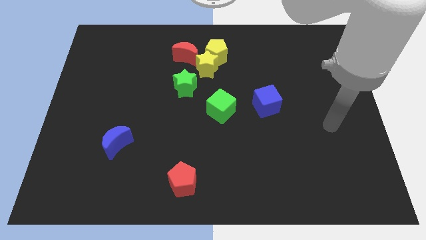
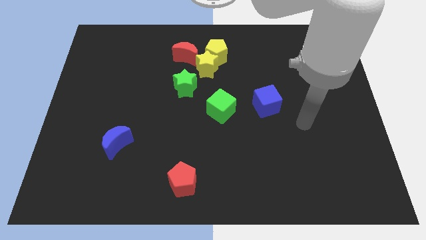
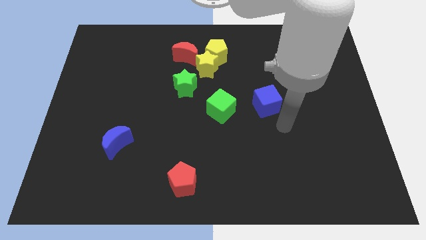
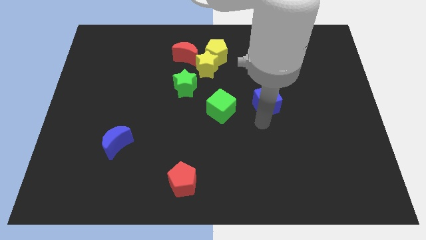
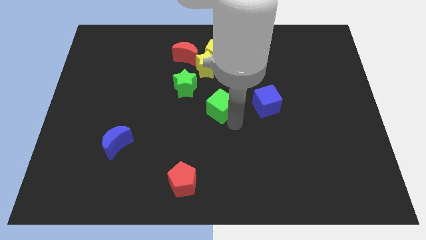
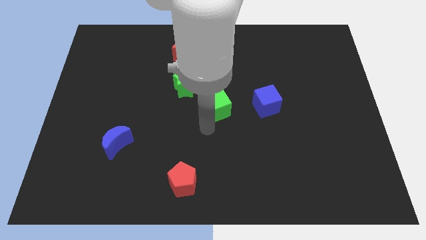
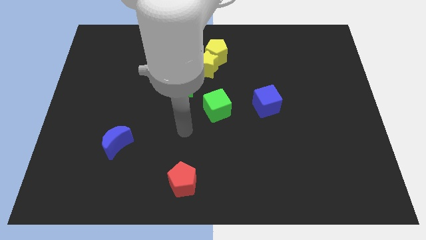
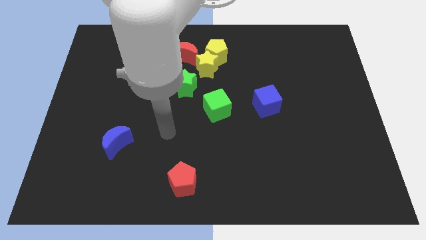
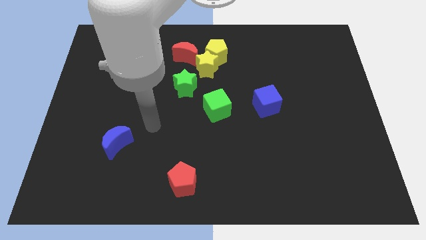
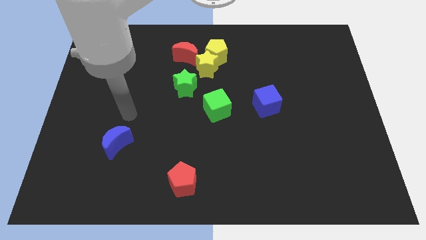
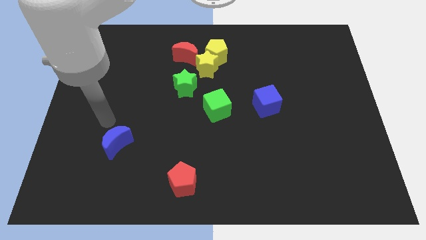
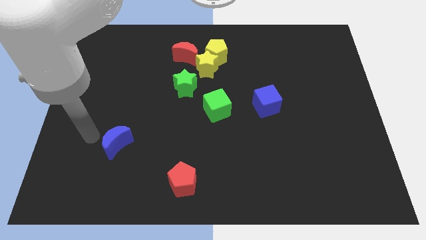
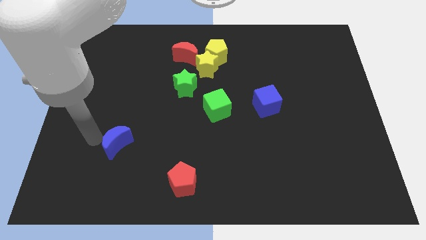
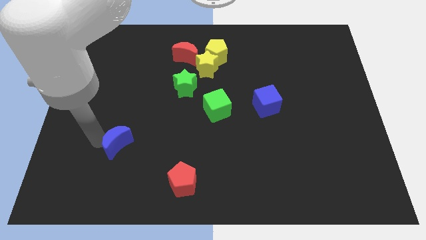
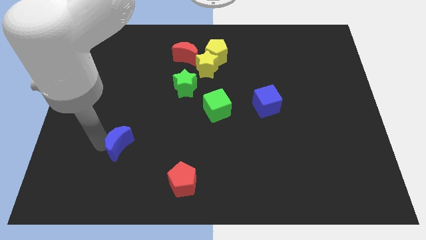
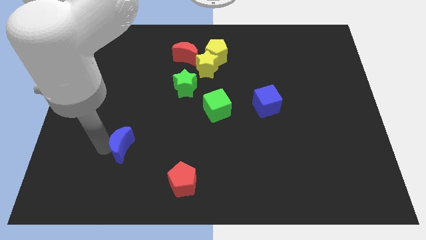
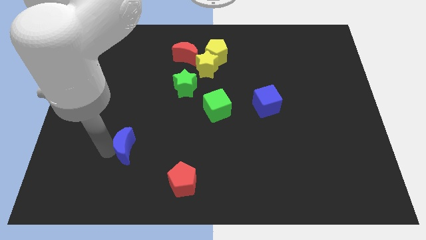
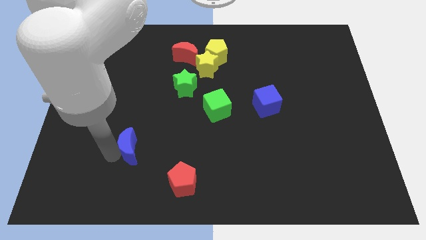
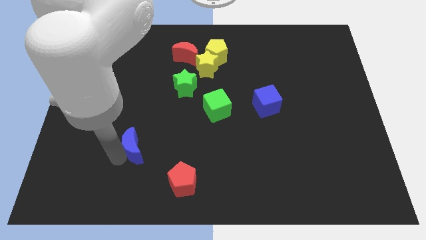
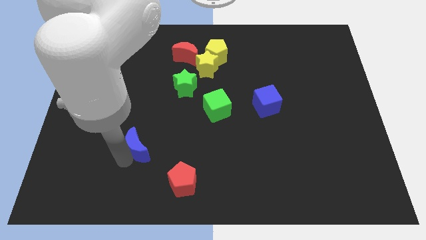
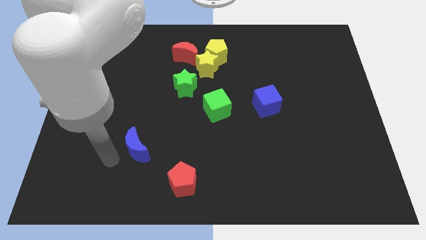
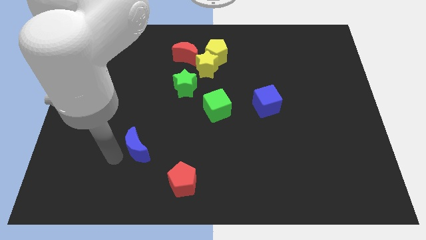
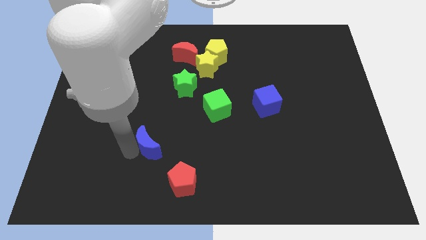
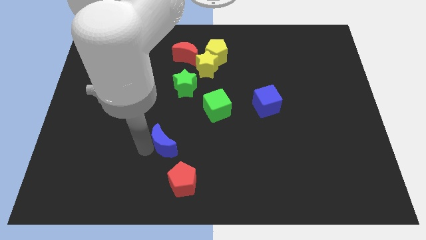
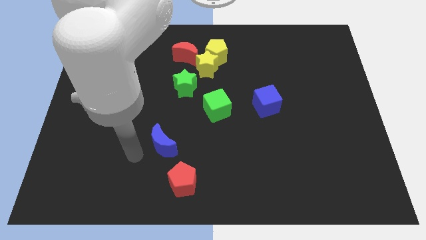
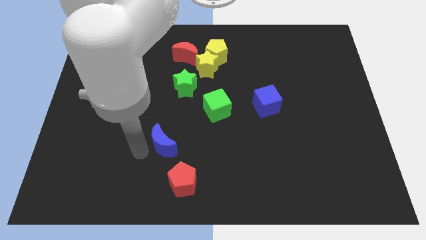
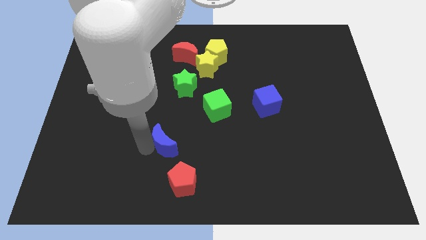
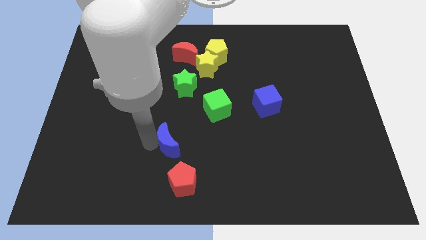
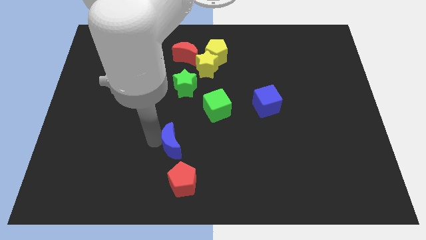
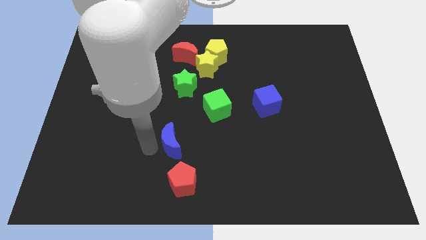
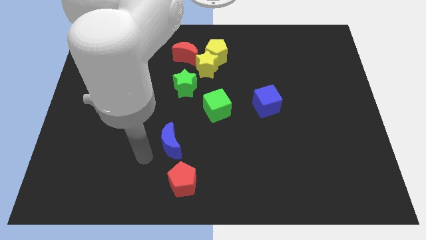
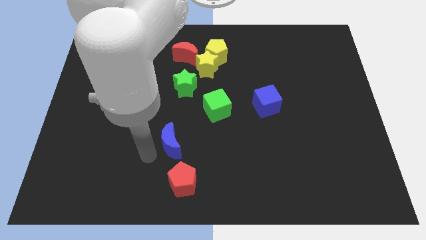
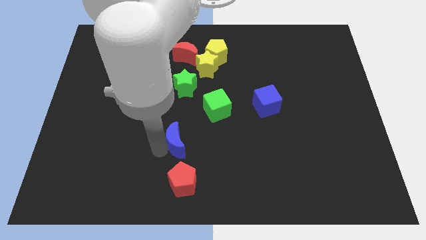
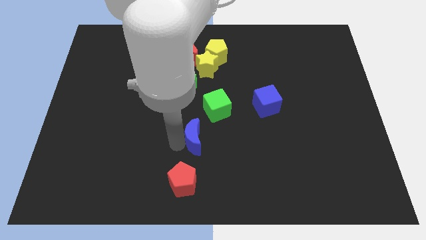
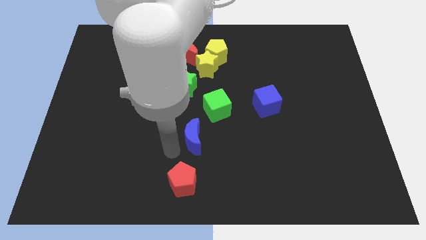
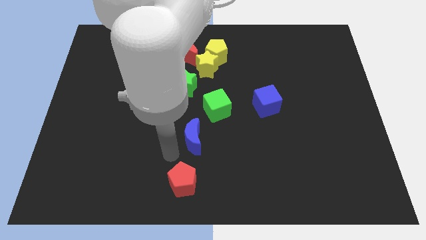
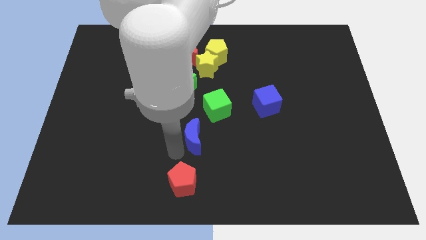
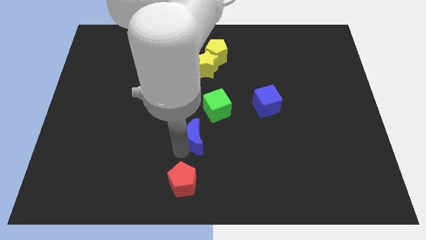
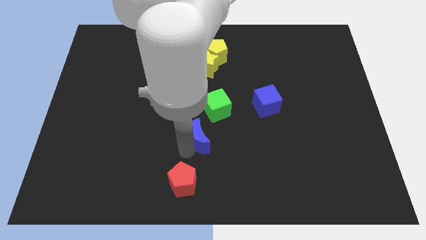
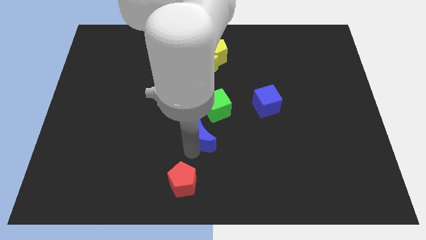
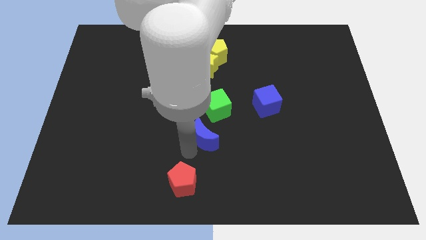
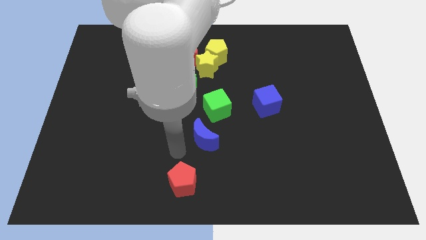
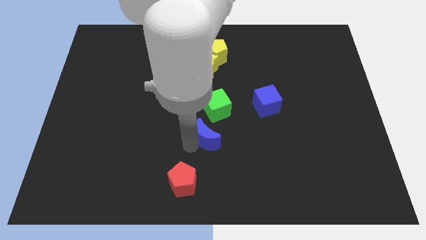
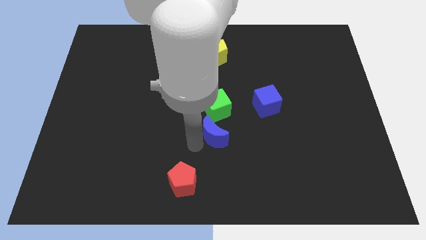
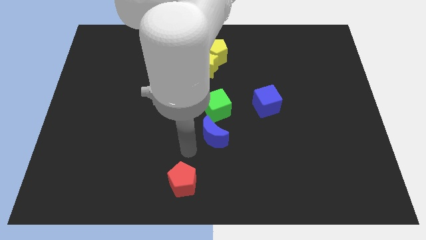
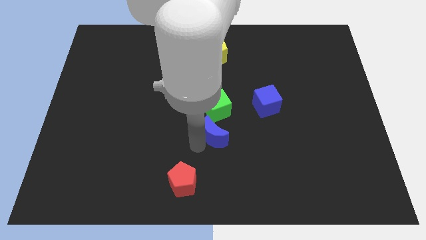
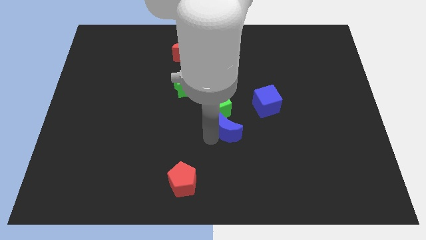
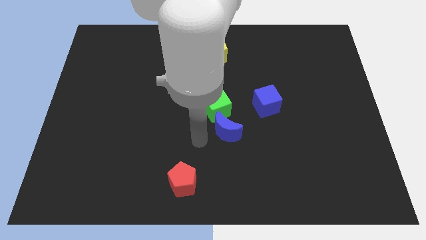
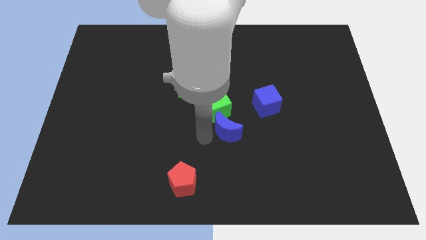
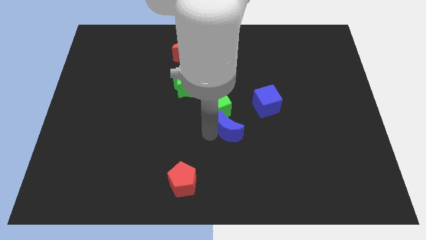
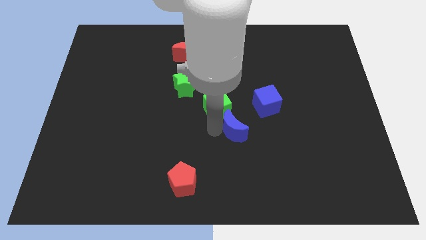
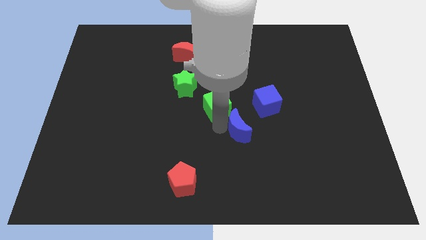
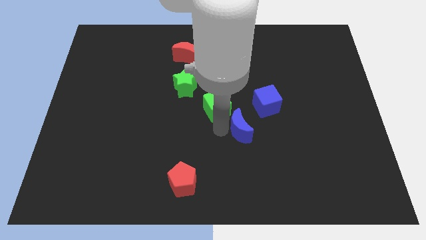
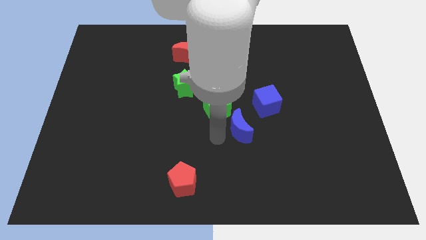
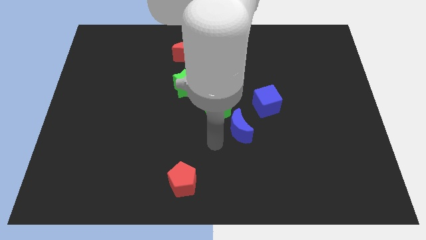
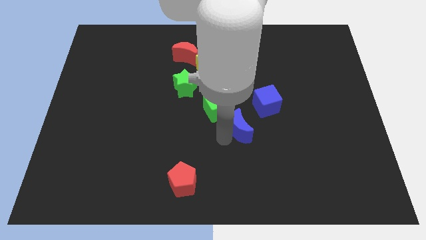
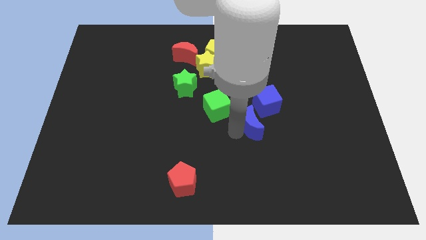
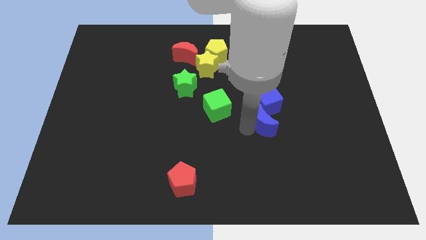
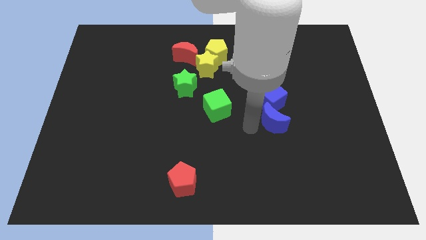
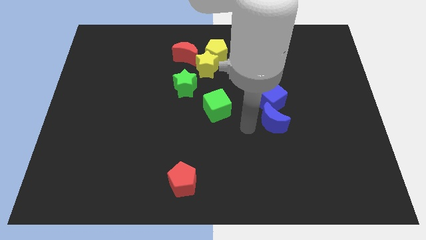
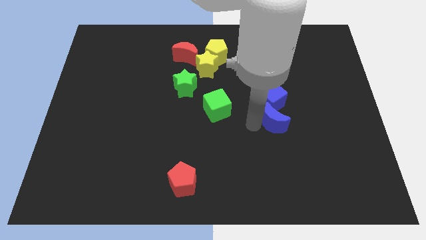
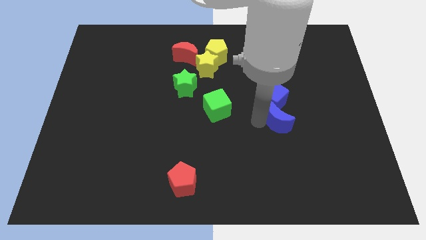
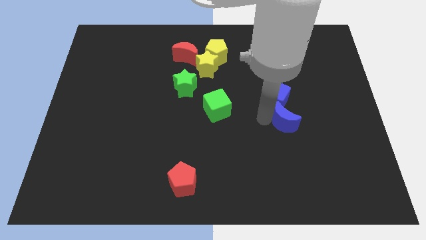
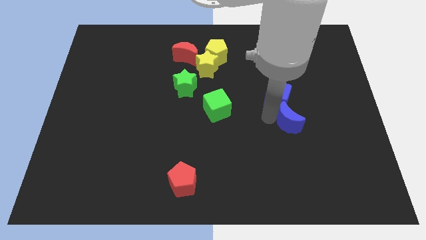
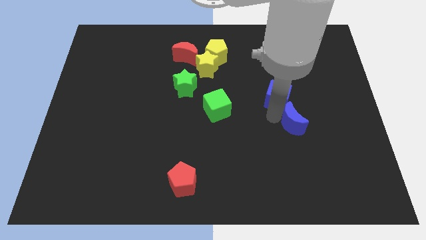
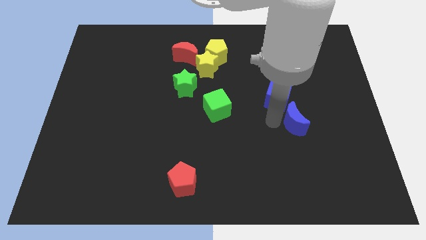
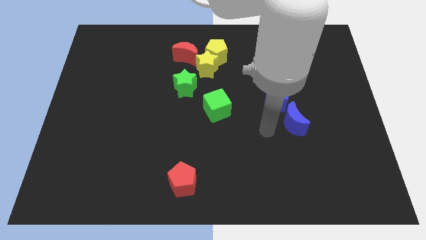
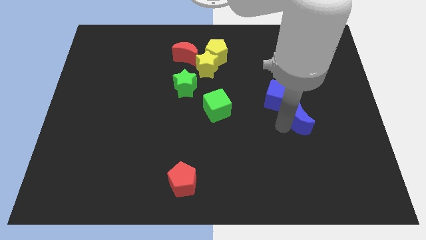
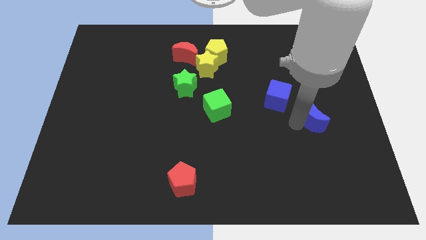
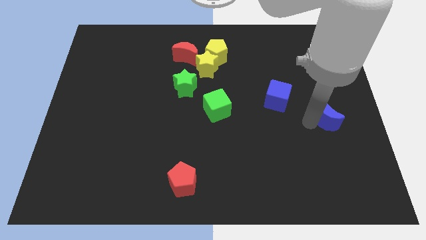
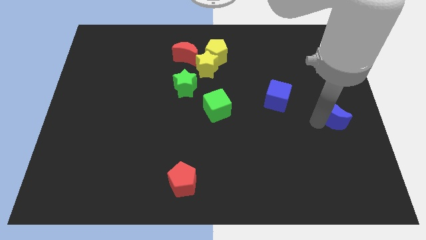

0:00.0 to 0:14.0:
push the blue moon to the center right
